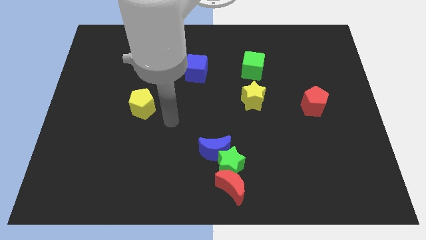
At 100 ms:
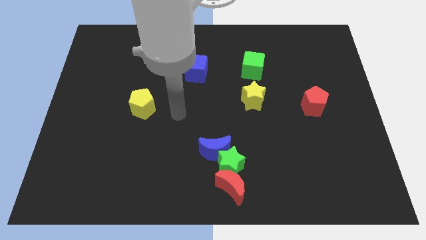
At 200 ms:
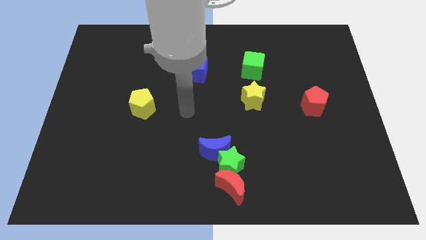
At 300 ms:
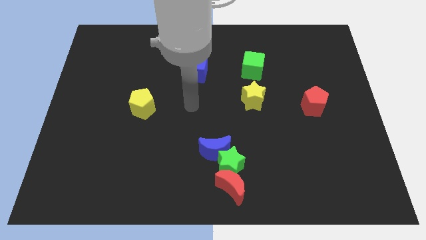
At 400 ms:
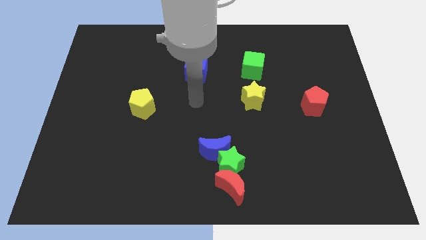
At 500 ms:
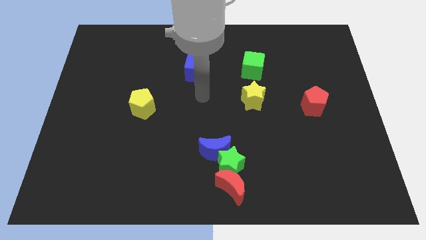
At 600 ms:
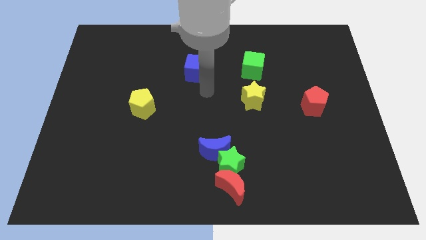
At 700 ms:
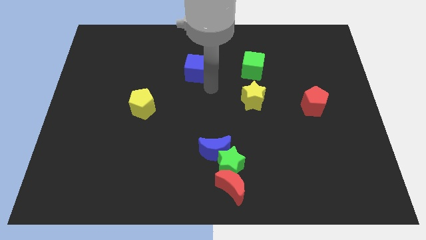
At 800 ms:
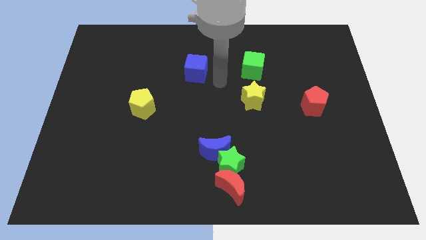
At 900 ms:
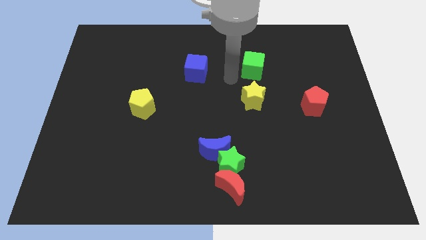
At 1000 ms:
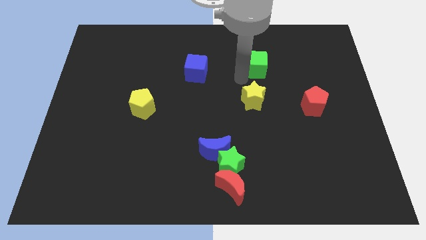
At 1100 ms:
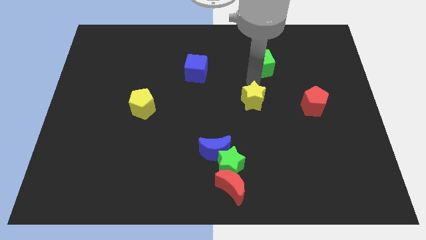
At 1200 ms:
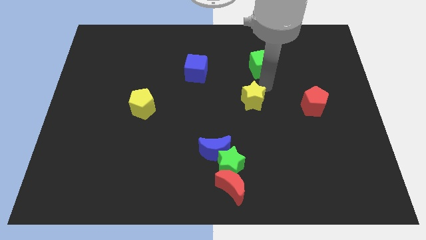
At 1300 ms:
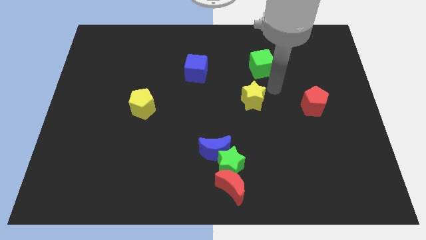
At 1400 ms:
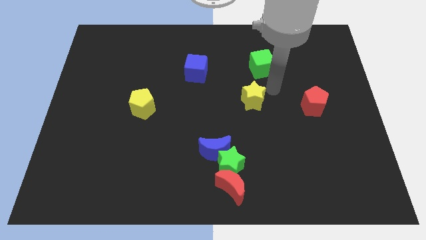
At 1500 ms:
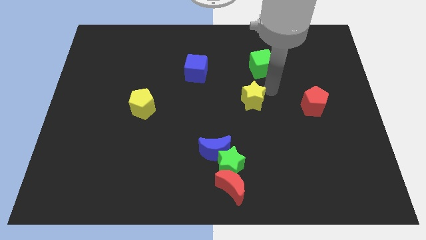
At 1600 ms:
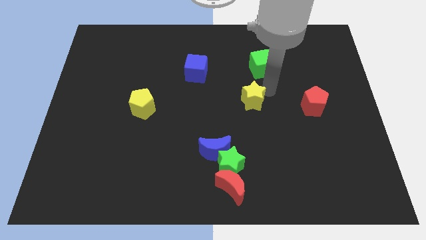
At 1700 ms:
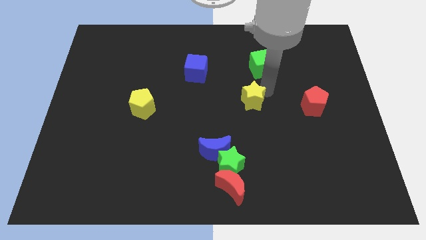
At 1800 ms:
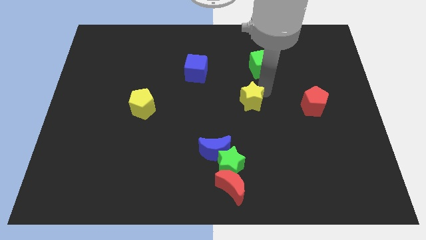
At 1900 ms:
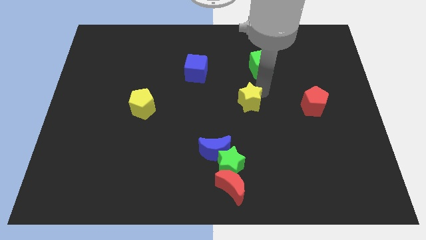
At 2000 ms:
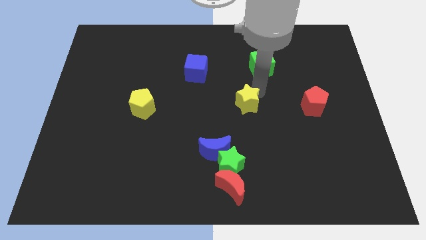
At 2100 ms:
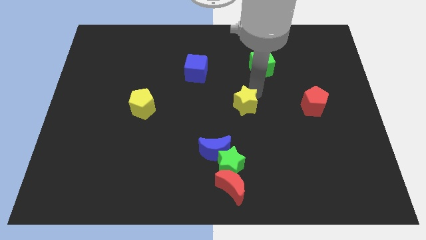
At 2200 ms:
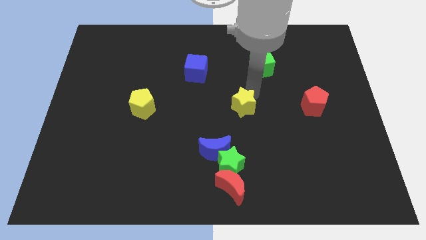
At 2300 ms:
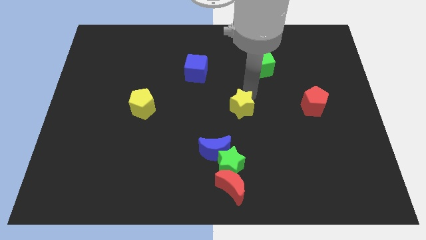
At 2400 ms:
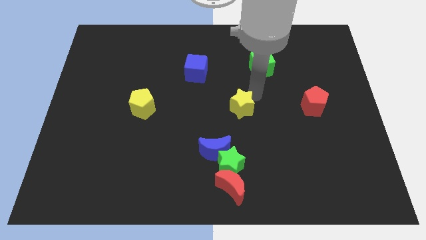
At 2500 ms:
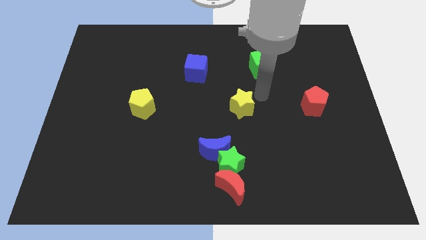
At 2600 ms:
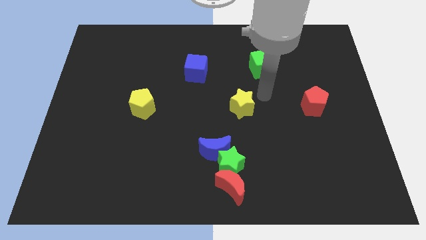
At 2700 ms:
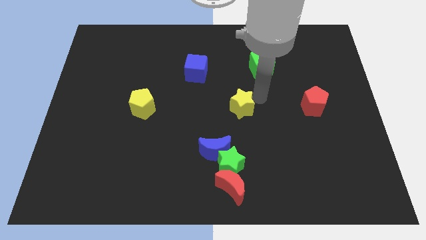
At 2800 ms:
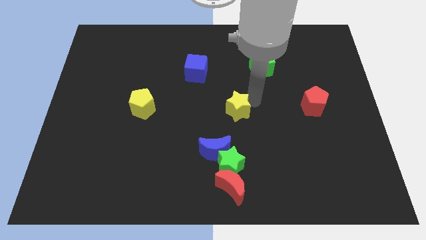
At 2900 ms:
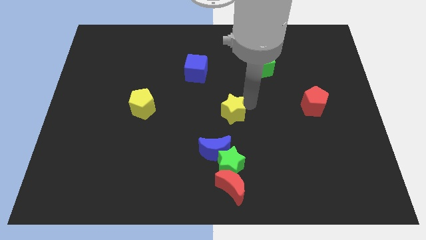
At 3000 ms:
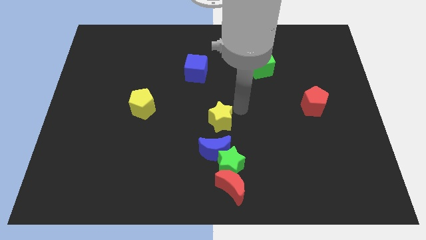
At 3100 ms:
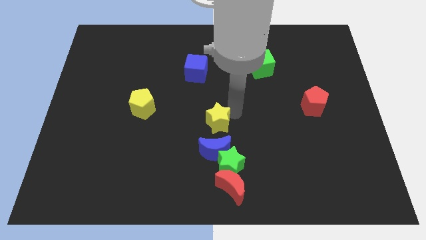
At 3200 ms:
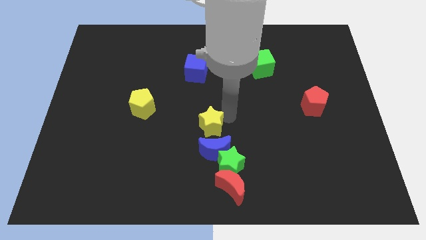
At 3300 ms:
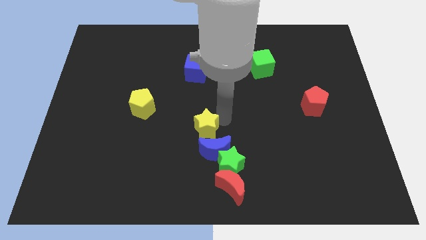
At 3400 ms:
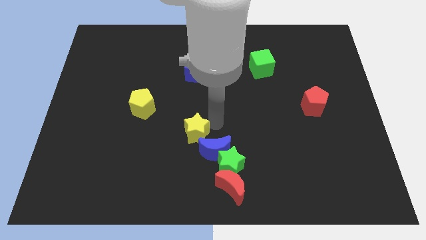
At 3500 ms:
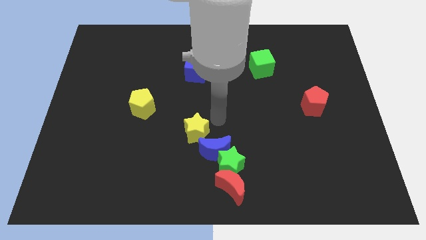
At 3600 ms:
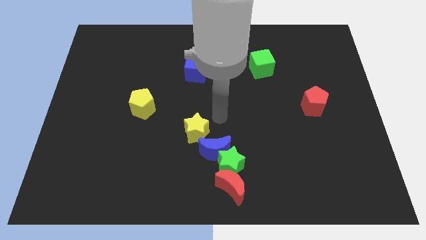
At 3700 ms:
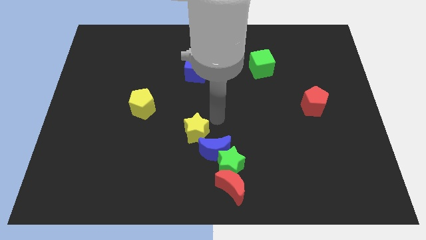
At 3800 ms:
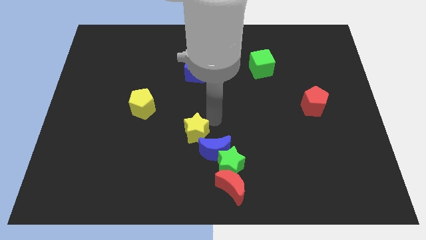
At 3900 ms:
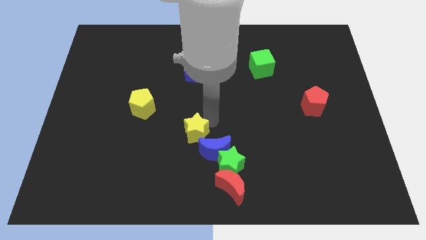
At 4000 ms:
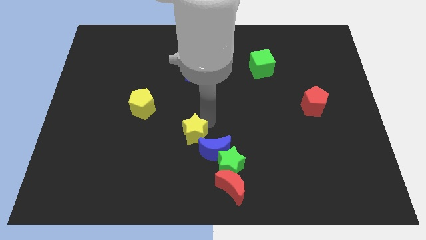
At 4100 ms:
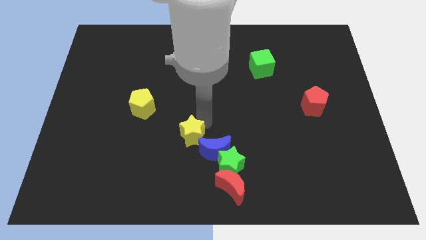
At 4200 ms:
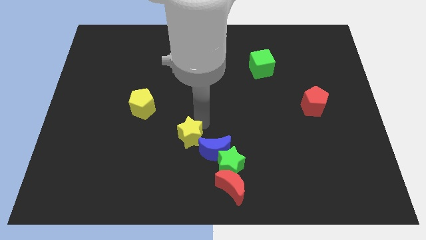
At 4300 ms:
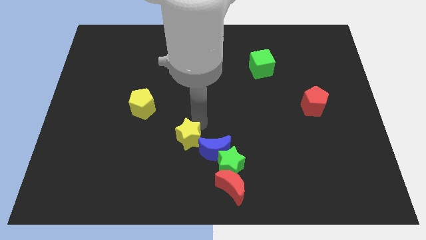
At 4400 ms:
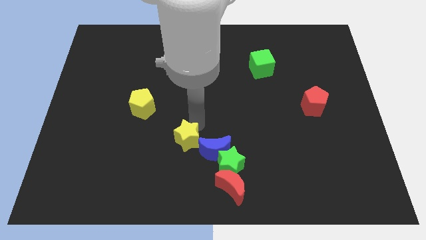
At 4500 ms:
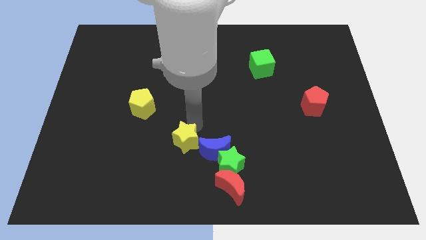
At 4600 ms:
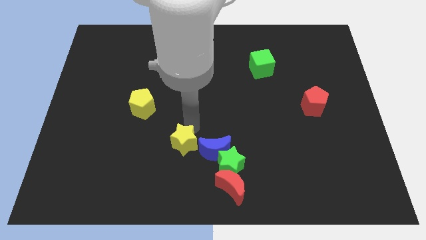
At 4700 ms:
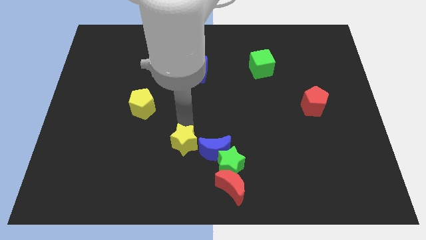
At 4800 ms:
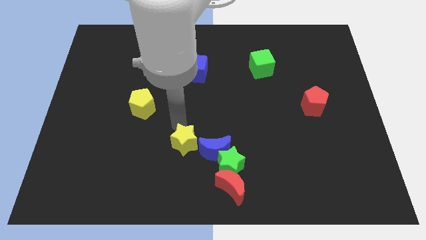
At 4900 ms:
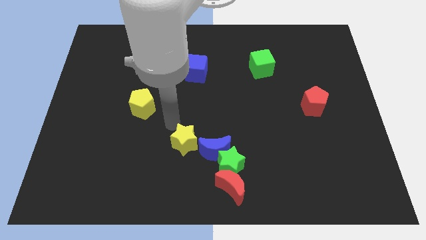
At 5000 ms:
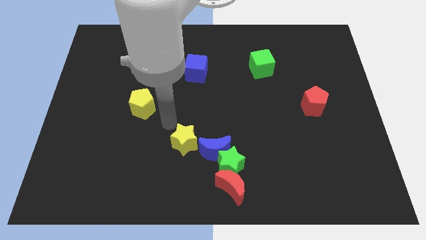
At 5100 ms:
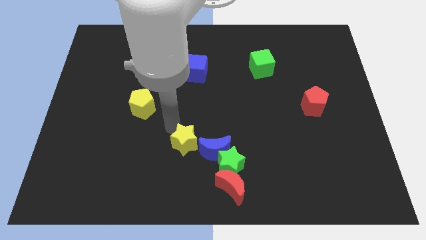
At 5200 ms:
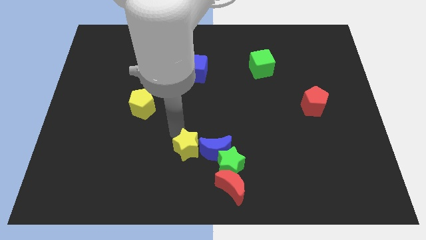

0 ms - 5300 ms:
move the yellow star diagonally up and to the left of the red moon

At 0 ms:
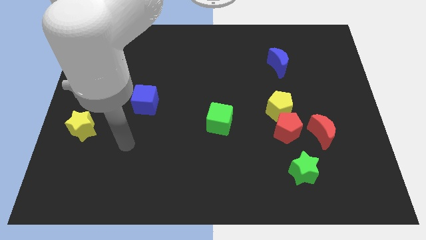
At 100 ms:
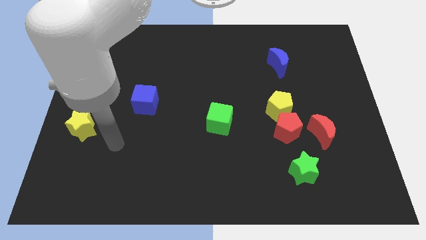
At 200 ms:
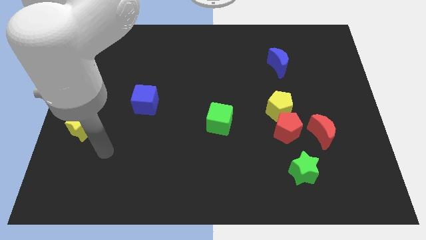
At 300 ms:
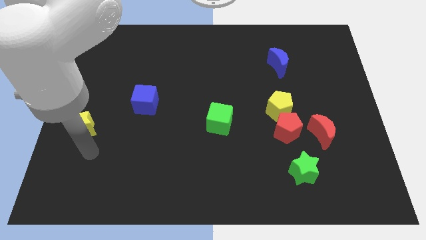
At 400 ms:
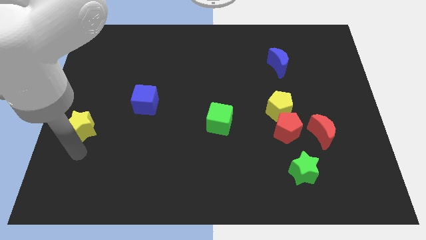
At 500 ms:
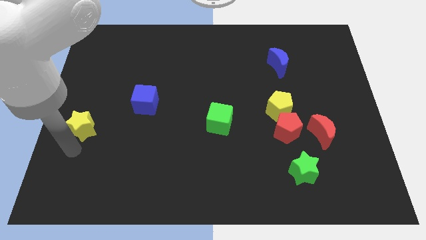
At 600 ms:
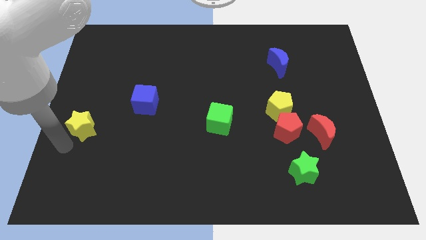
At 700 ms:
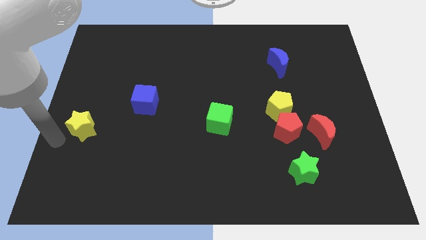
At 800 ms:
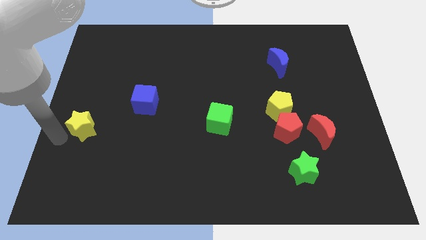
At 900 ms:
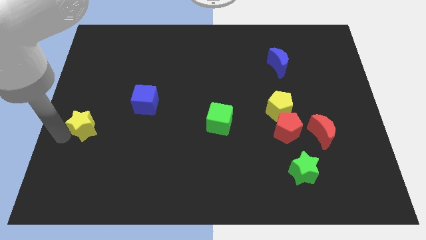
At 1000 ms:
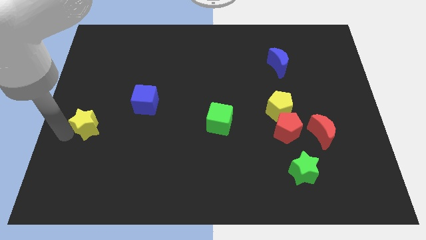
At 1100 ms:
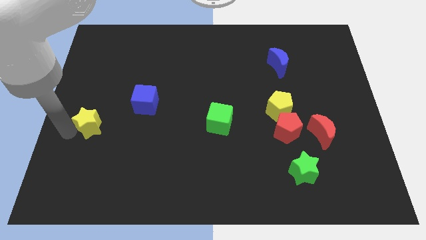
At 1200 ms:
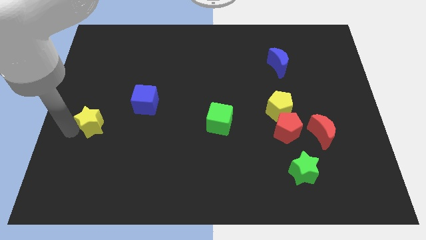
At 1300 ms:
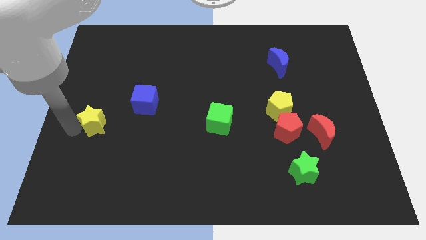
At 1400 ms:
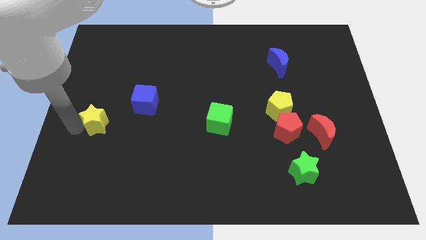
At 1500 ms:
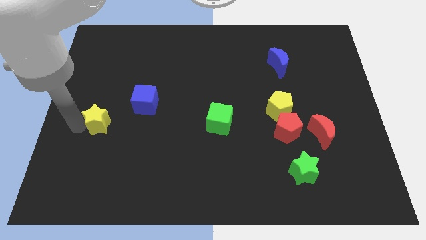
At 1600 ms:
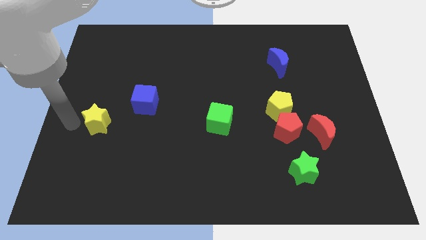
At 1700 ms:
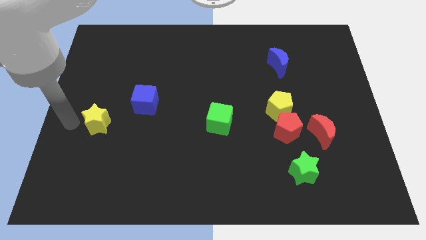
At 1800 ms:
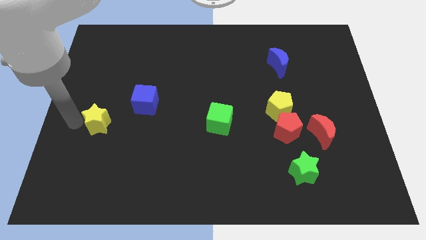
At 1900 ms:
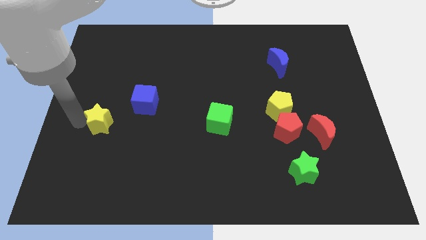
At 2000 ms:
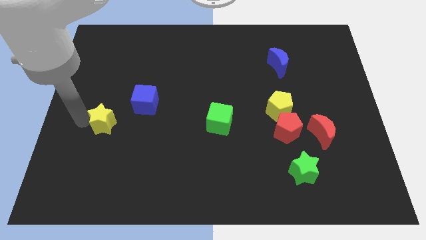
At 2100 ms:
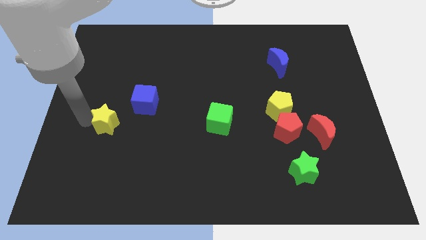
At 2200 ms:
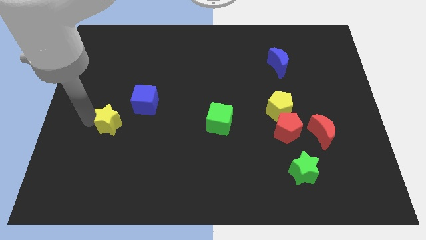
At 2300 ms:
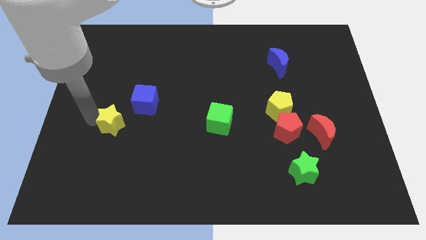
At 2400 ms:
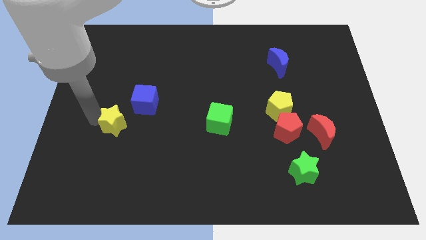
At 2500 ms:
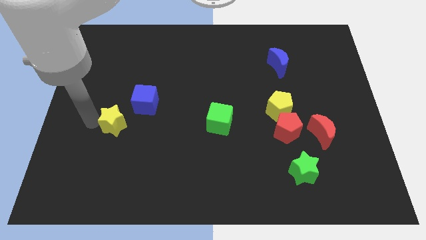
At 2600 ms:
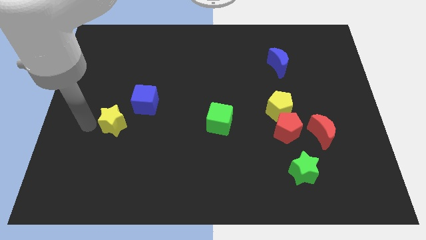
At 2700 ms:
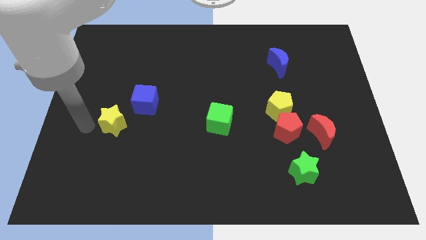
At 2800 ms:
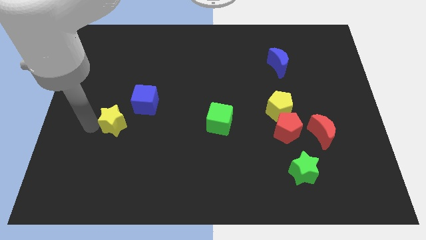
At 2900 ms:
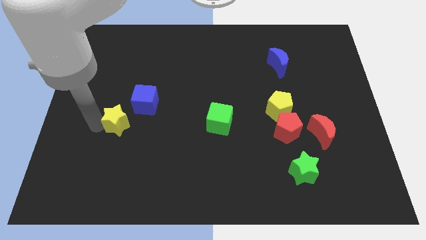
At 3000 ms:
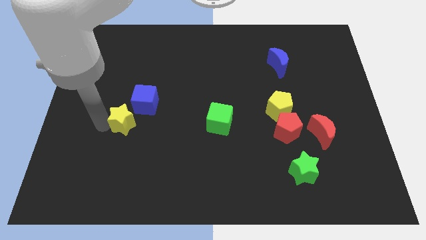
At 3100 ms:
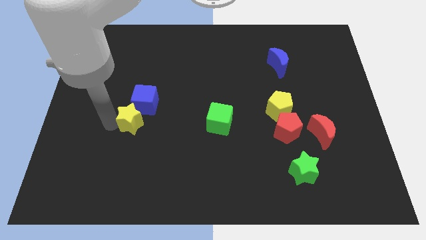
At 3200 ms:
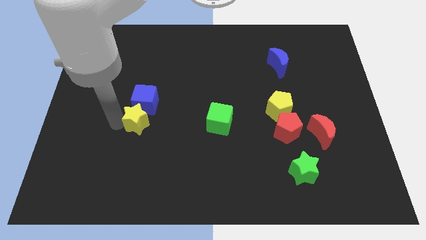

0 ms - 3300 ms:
move the yellow star to the bottom right of the blue cube
